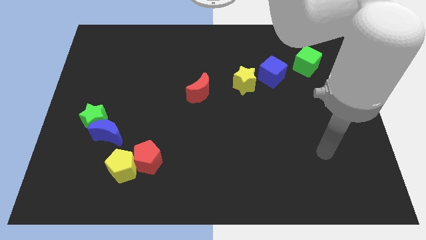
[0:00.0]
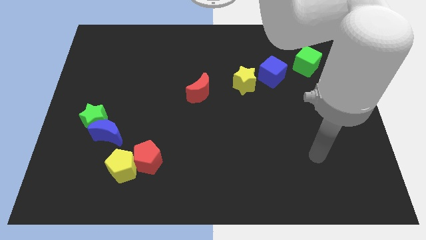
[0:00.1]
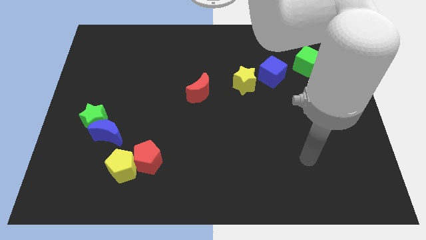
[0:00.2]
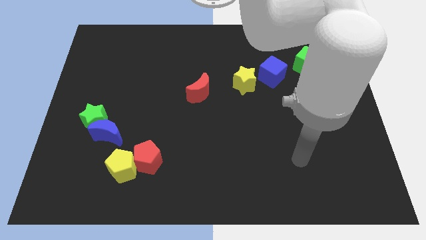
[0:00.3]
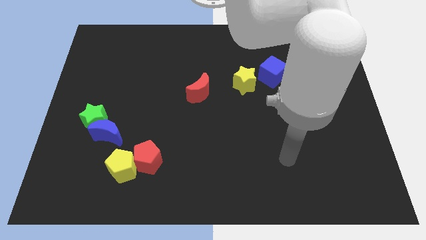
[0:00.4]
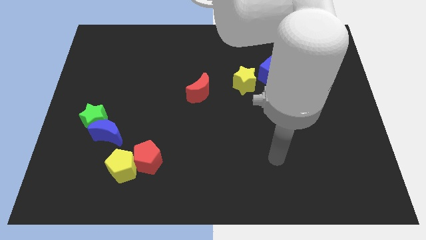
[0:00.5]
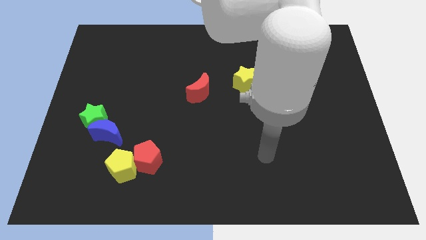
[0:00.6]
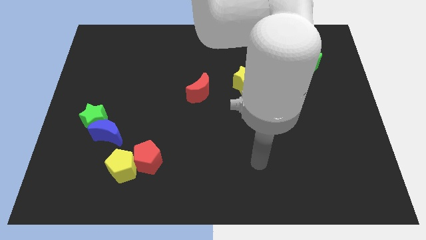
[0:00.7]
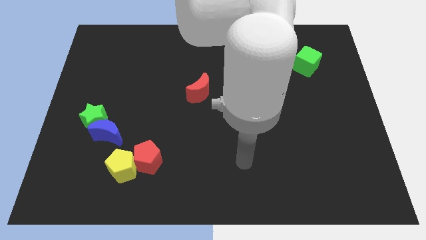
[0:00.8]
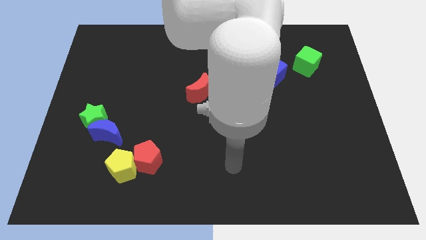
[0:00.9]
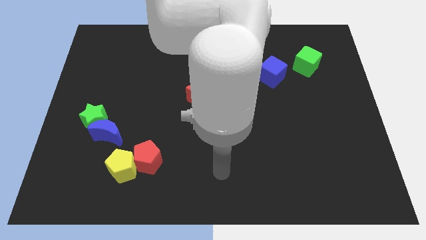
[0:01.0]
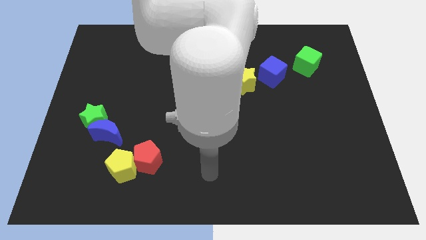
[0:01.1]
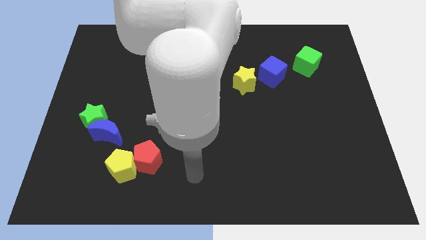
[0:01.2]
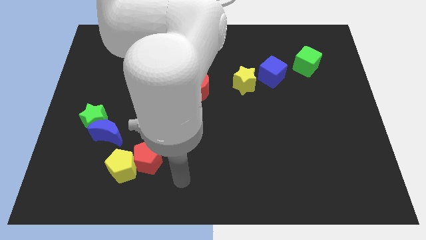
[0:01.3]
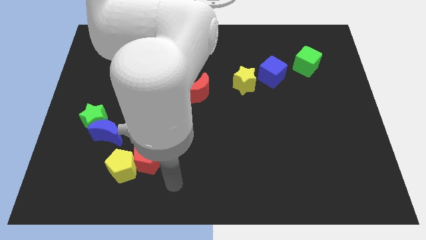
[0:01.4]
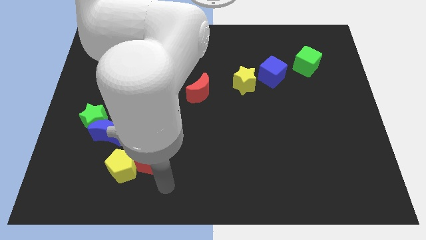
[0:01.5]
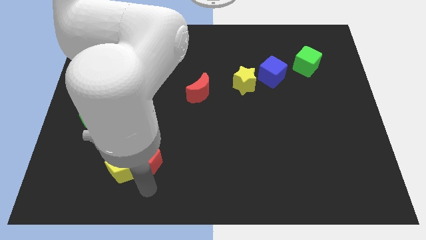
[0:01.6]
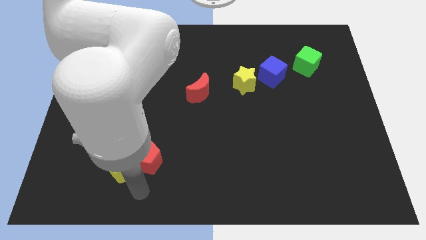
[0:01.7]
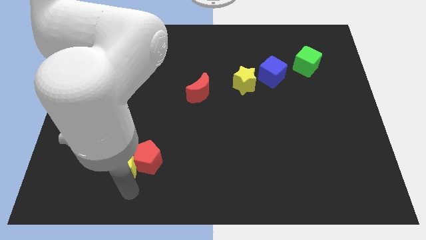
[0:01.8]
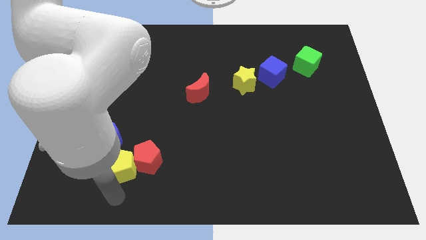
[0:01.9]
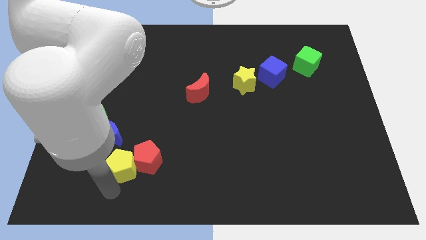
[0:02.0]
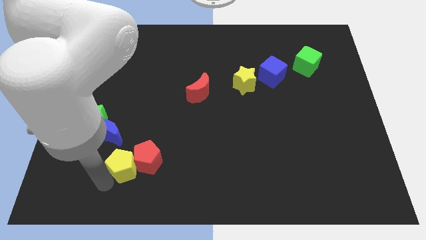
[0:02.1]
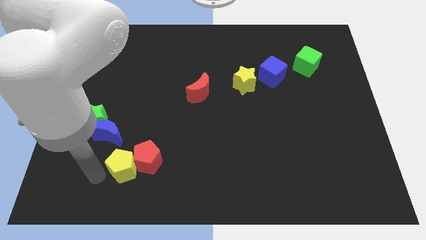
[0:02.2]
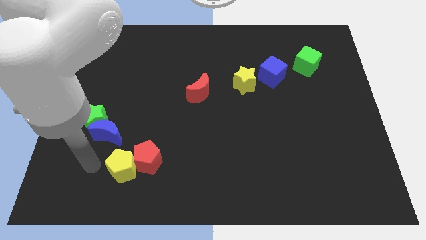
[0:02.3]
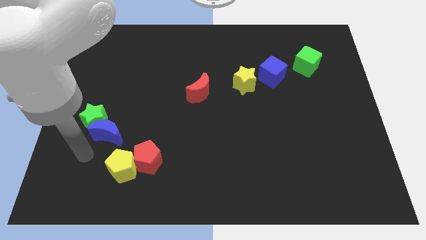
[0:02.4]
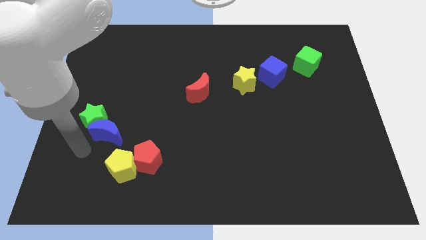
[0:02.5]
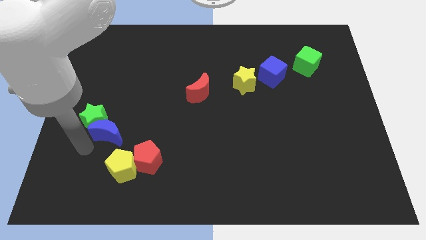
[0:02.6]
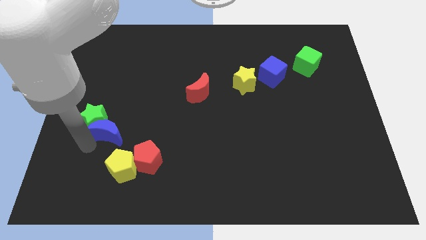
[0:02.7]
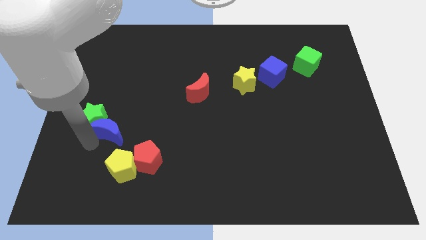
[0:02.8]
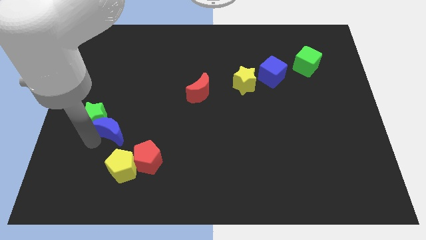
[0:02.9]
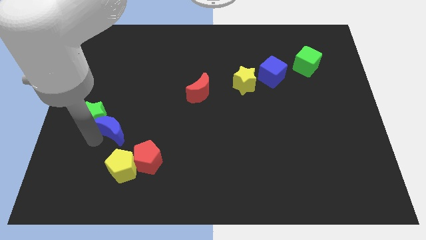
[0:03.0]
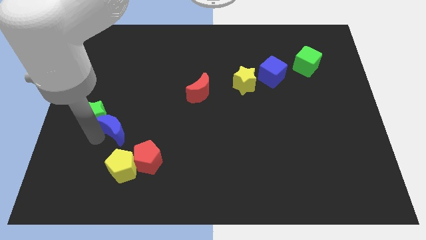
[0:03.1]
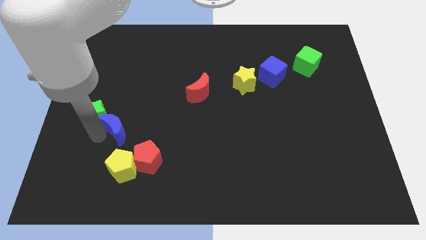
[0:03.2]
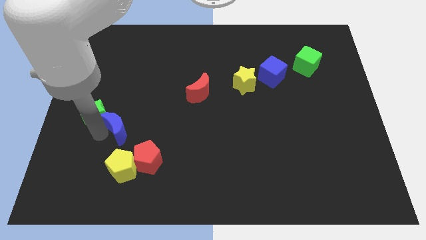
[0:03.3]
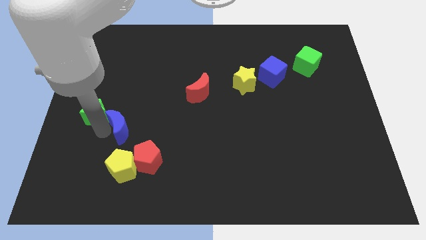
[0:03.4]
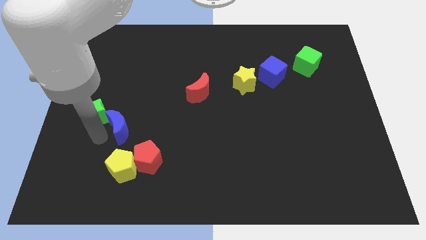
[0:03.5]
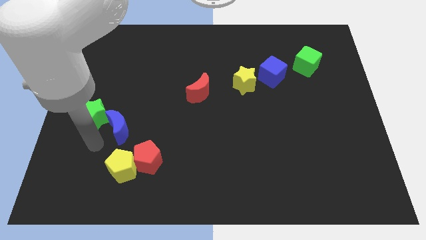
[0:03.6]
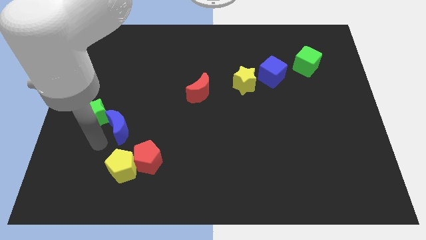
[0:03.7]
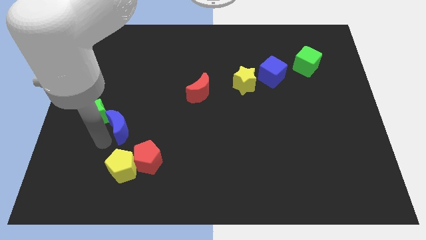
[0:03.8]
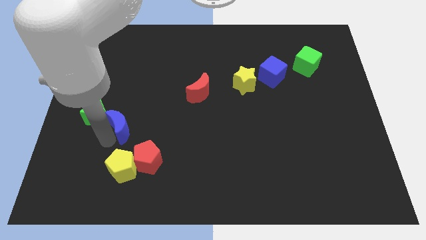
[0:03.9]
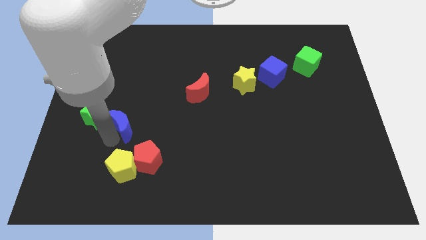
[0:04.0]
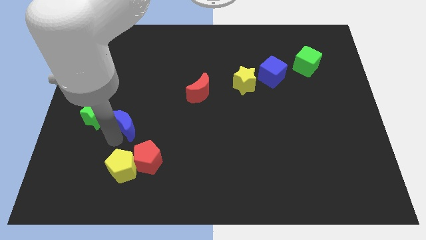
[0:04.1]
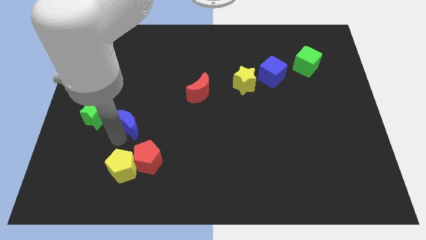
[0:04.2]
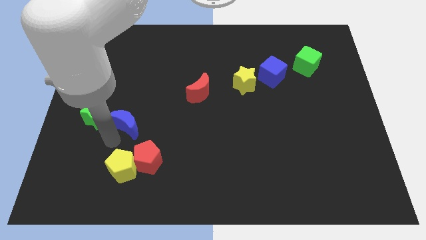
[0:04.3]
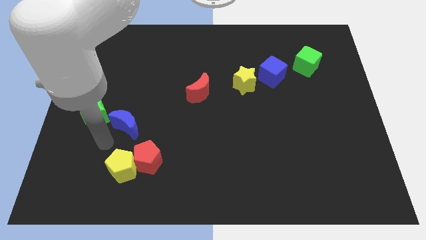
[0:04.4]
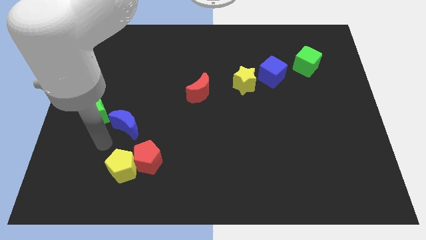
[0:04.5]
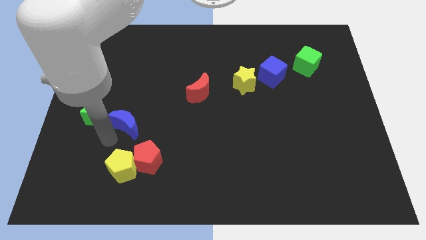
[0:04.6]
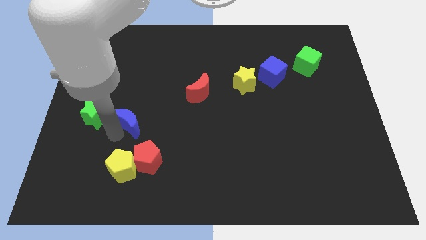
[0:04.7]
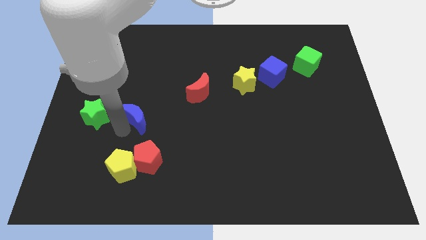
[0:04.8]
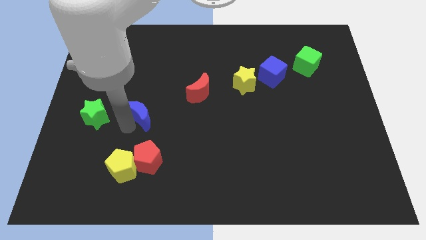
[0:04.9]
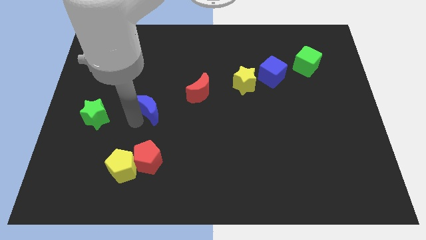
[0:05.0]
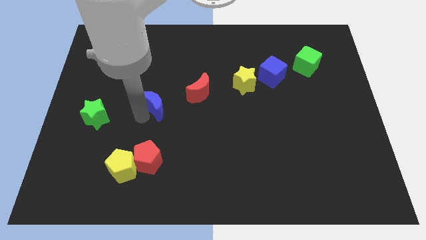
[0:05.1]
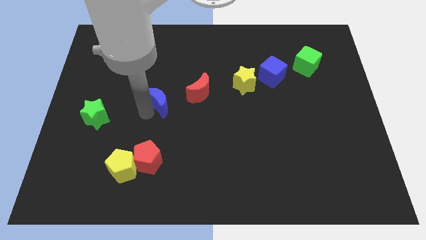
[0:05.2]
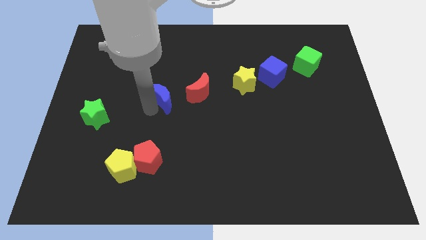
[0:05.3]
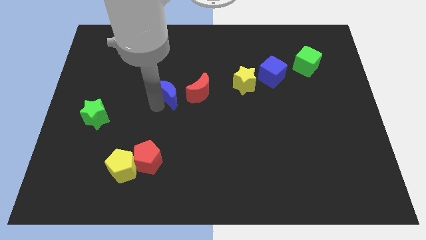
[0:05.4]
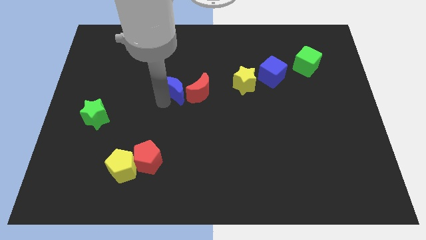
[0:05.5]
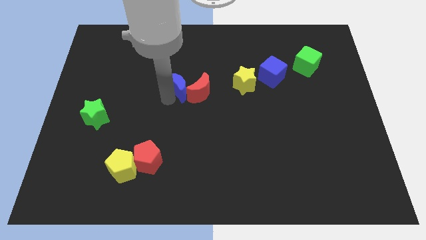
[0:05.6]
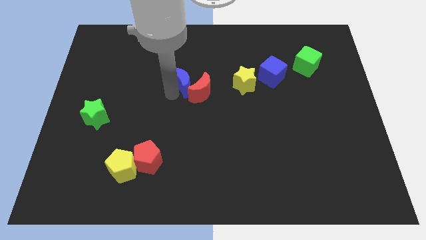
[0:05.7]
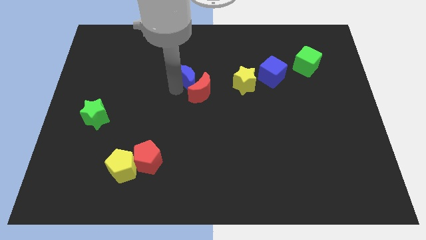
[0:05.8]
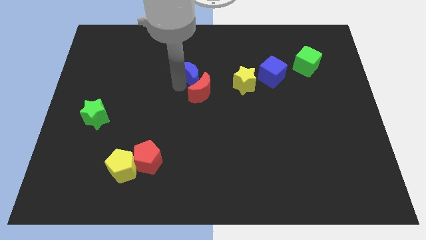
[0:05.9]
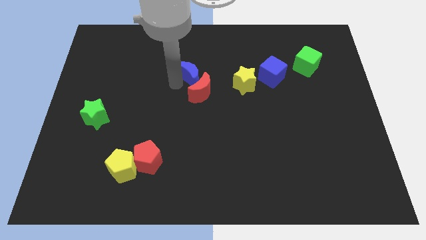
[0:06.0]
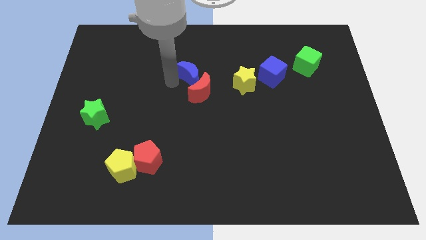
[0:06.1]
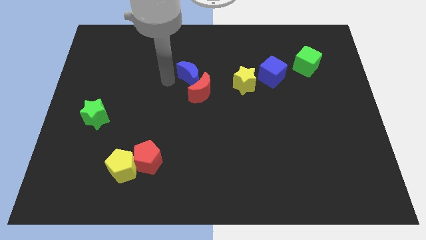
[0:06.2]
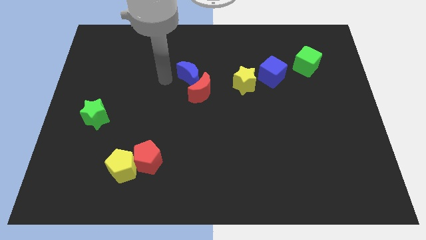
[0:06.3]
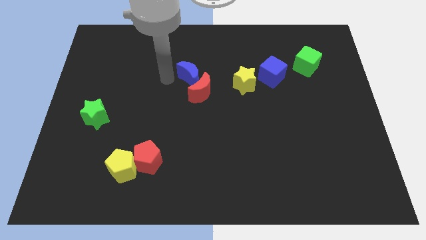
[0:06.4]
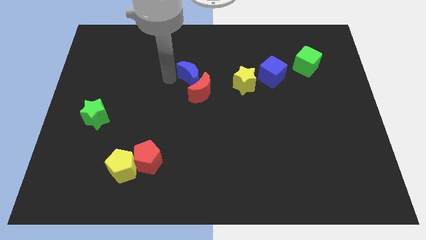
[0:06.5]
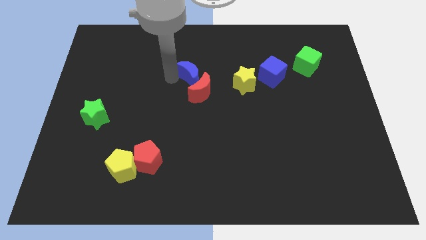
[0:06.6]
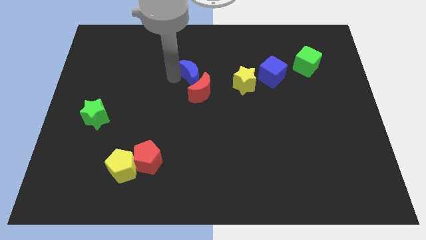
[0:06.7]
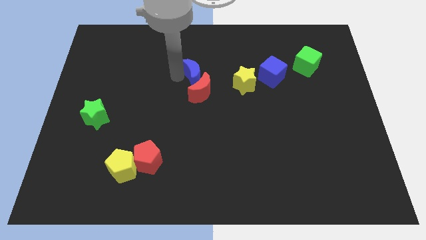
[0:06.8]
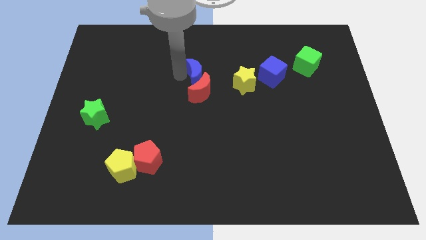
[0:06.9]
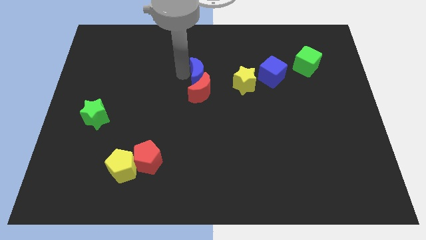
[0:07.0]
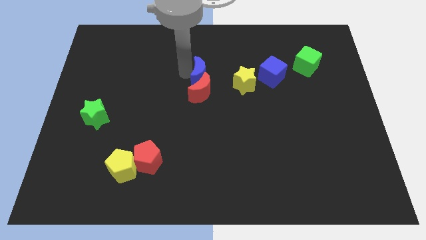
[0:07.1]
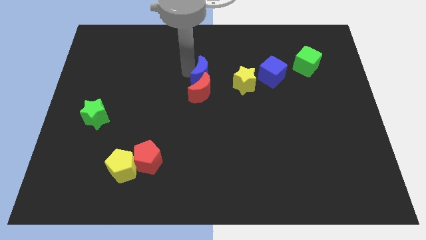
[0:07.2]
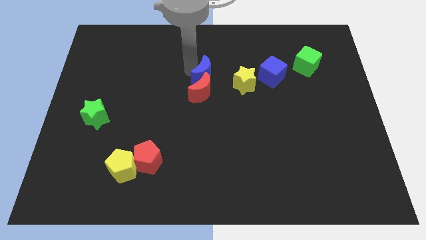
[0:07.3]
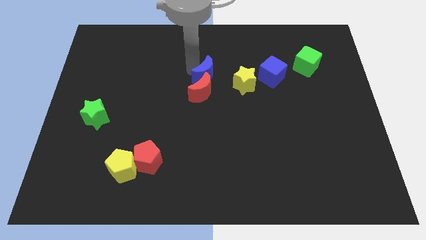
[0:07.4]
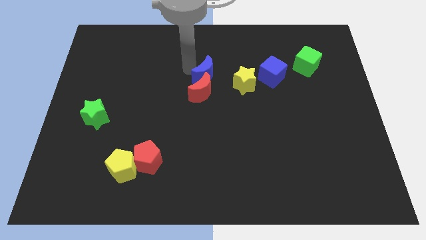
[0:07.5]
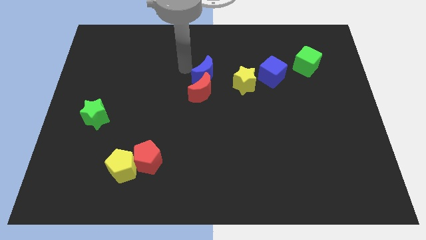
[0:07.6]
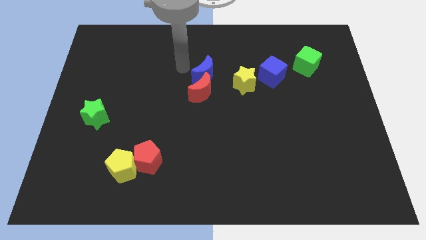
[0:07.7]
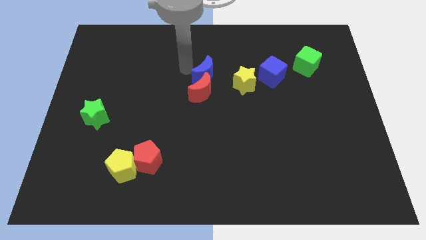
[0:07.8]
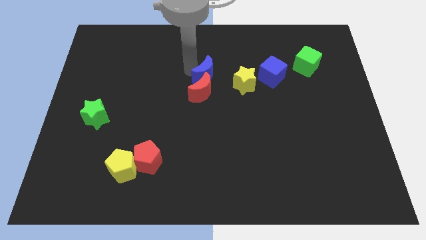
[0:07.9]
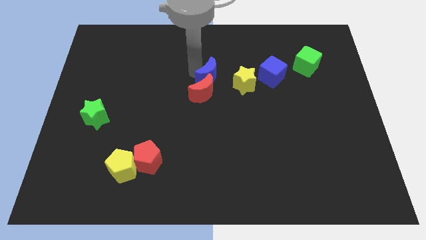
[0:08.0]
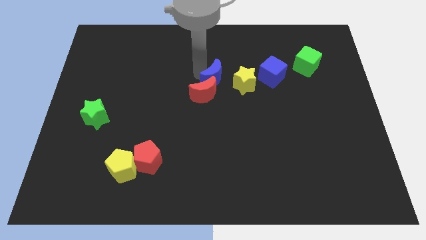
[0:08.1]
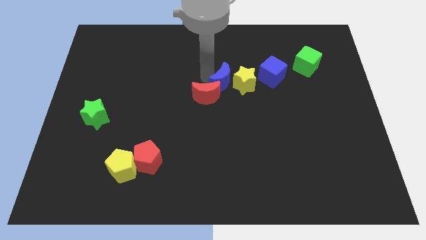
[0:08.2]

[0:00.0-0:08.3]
slide the blue moon towards the yellow star
